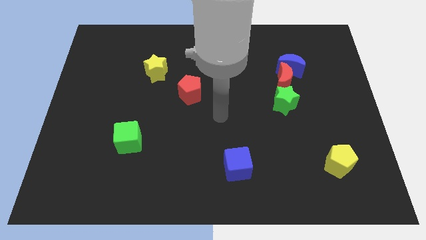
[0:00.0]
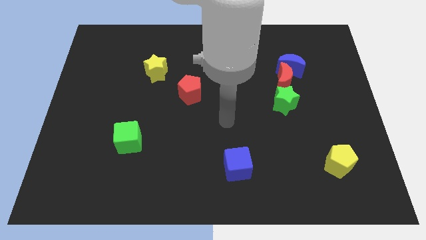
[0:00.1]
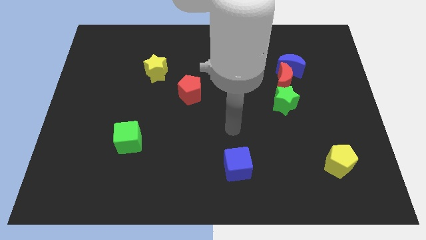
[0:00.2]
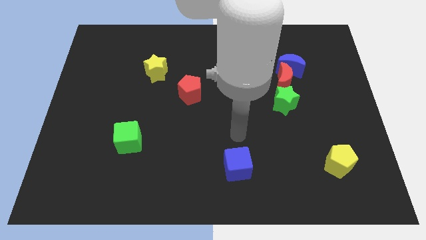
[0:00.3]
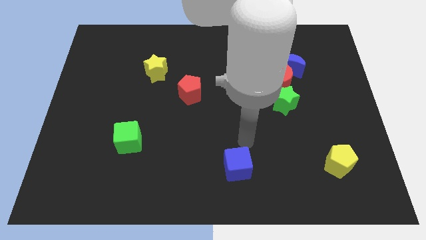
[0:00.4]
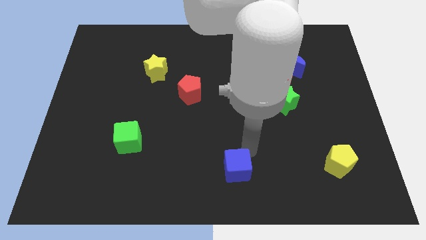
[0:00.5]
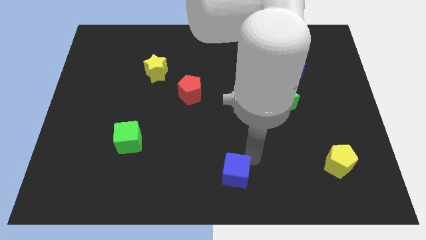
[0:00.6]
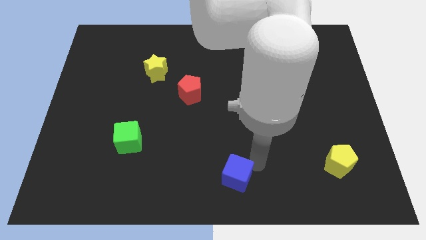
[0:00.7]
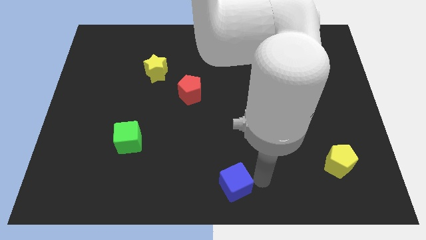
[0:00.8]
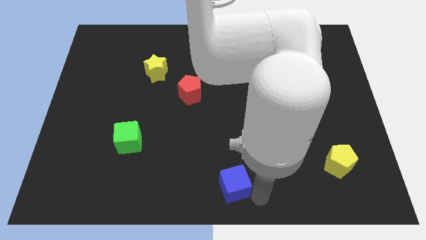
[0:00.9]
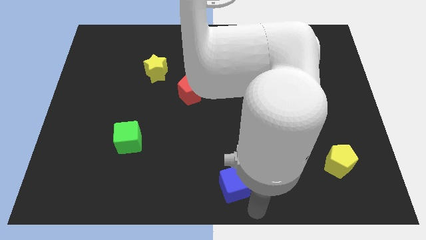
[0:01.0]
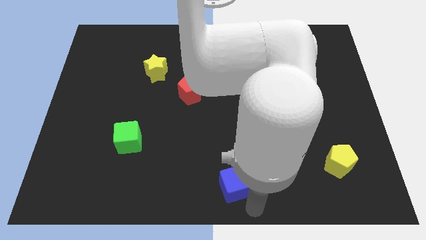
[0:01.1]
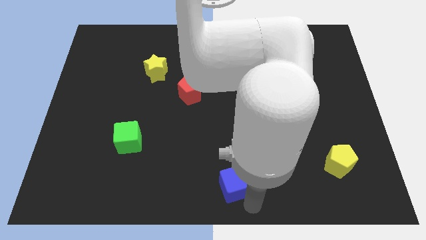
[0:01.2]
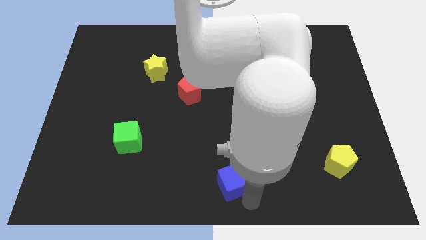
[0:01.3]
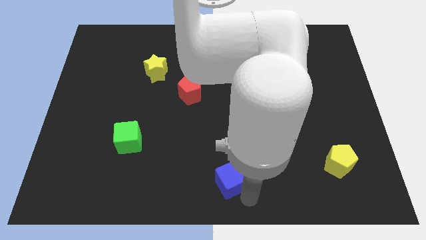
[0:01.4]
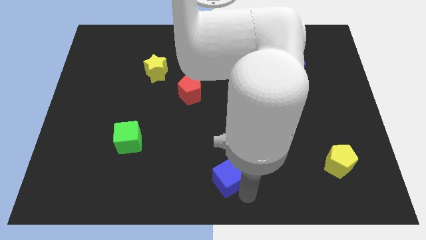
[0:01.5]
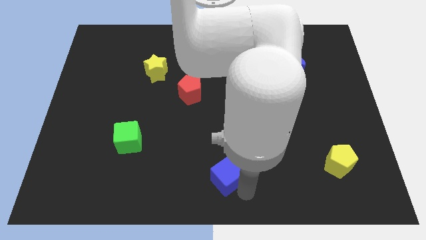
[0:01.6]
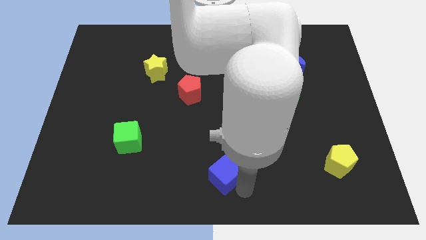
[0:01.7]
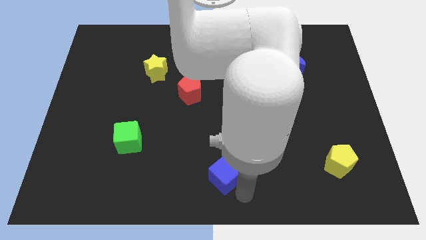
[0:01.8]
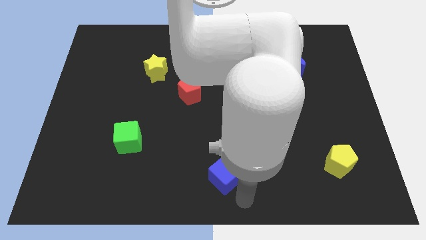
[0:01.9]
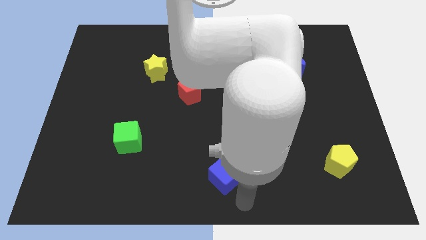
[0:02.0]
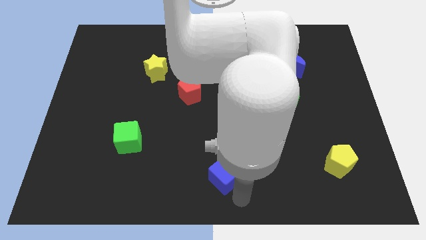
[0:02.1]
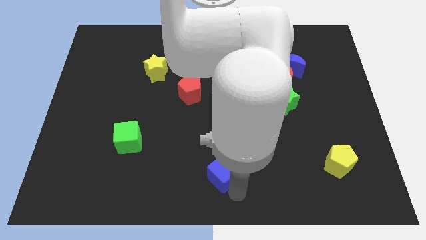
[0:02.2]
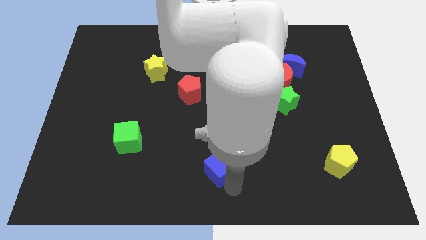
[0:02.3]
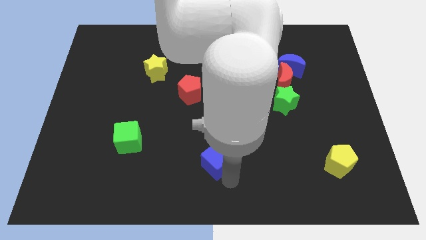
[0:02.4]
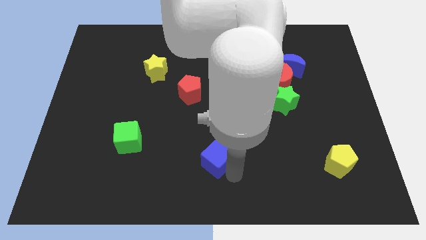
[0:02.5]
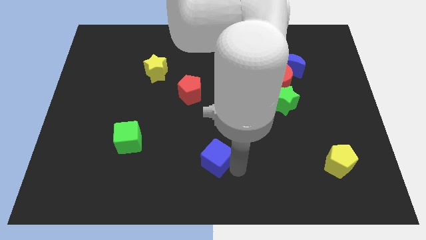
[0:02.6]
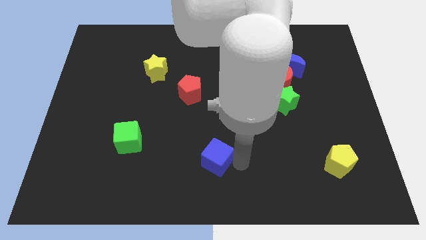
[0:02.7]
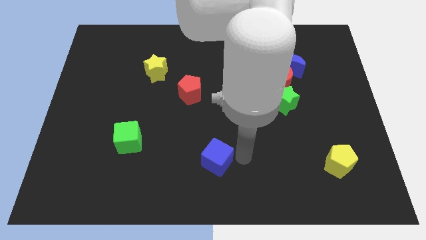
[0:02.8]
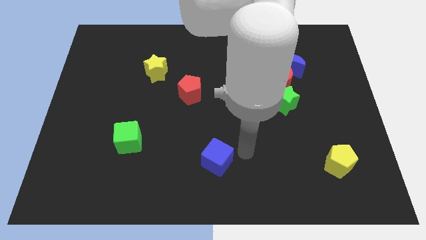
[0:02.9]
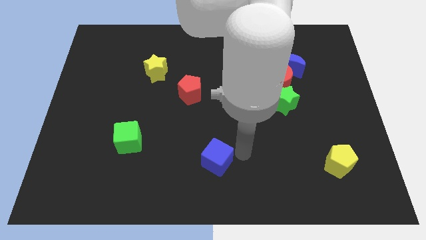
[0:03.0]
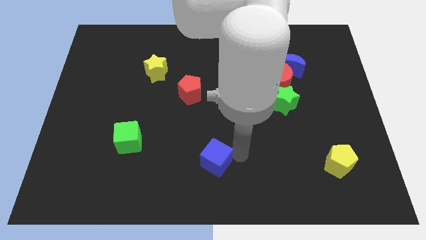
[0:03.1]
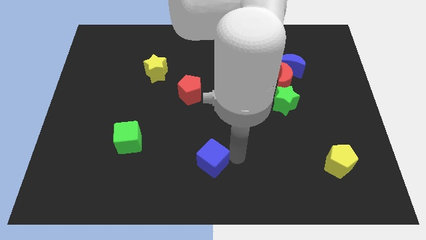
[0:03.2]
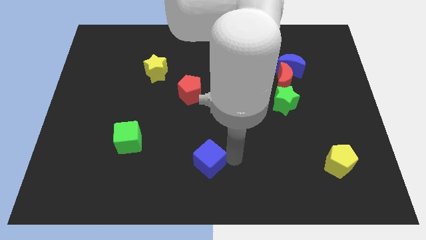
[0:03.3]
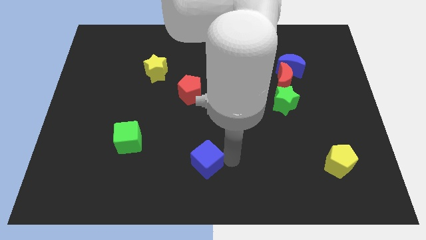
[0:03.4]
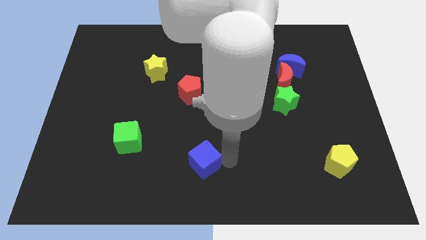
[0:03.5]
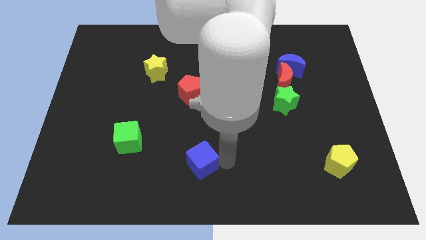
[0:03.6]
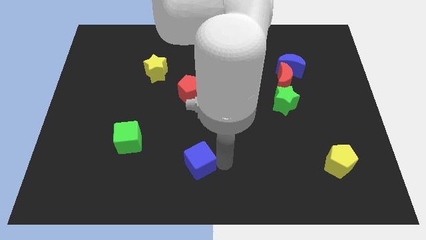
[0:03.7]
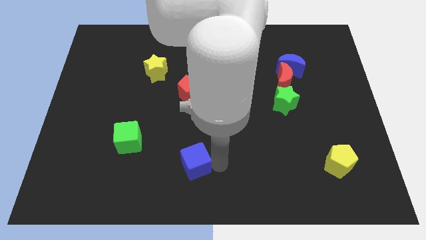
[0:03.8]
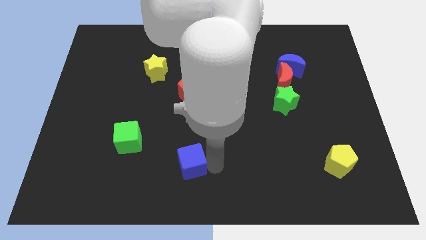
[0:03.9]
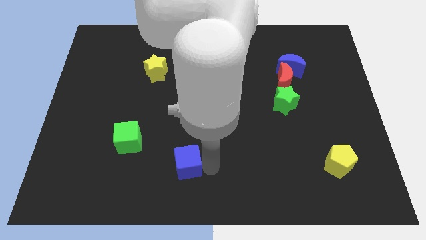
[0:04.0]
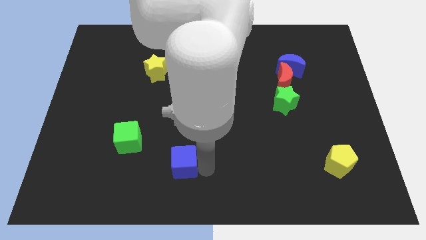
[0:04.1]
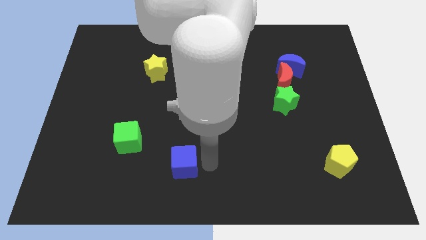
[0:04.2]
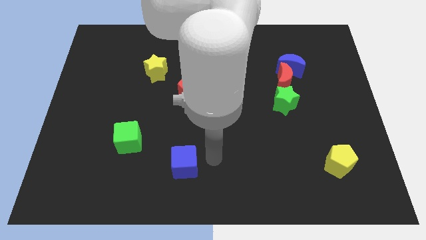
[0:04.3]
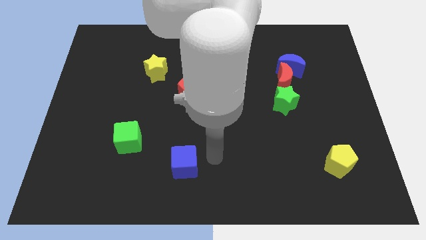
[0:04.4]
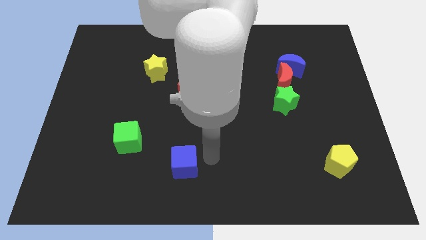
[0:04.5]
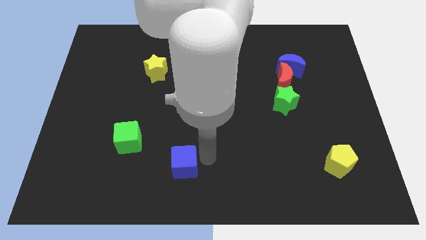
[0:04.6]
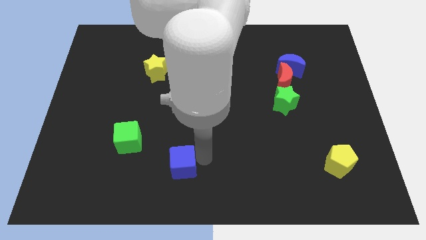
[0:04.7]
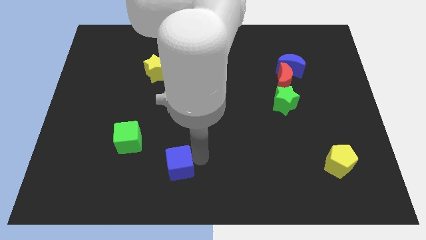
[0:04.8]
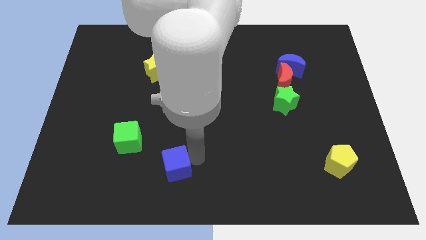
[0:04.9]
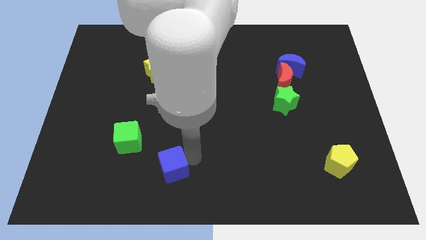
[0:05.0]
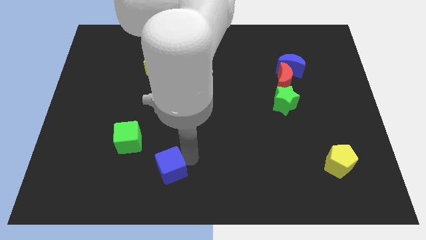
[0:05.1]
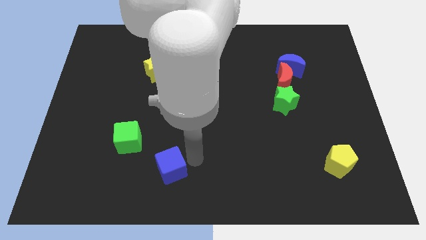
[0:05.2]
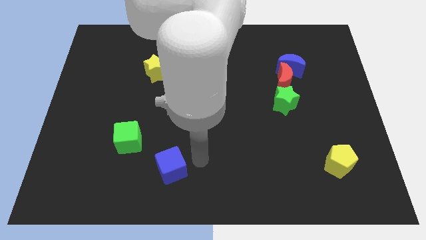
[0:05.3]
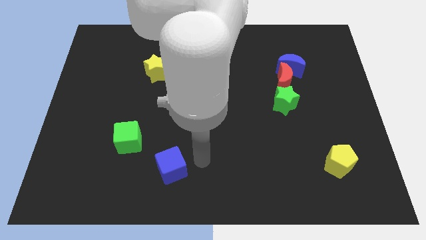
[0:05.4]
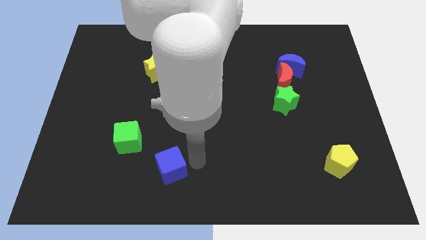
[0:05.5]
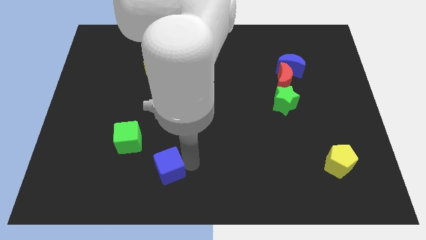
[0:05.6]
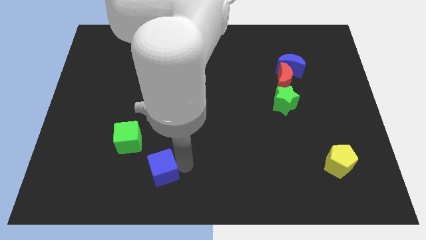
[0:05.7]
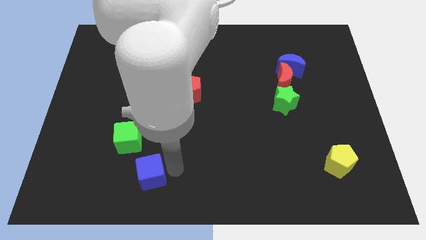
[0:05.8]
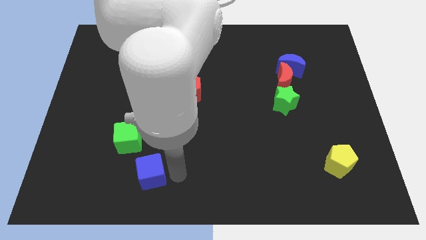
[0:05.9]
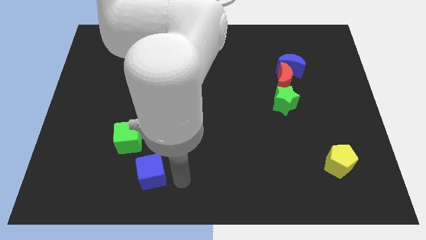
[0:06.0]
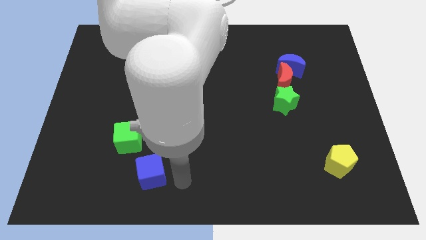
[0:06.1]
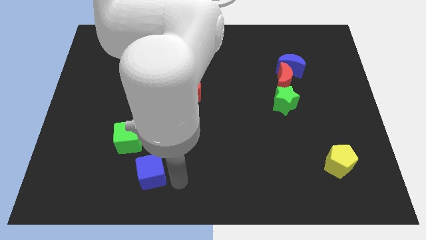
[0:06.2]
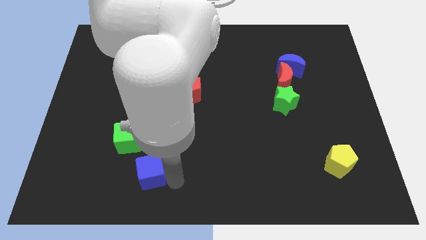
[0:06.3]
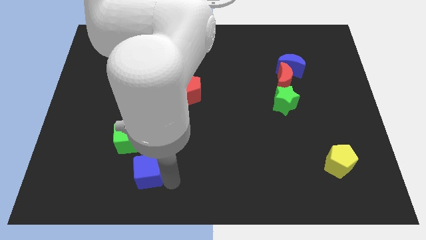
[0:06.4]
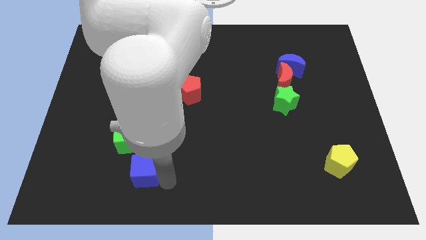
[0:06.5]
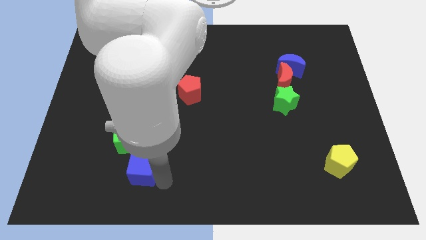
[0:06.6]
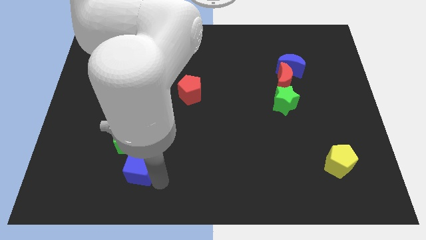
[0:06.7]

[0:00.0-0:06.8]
push the blue cube to the left

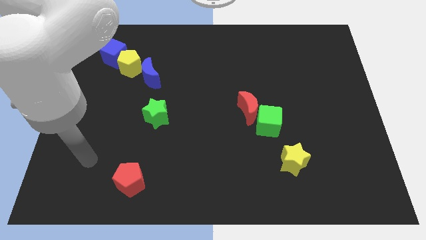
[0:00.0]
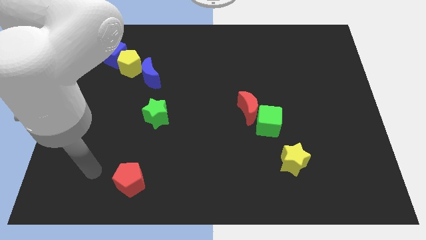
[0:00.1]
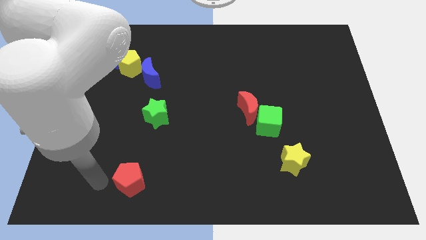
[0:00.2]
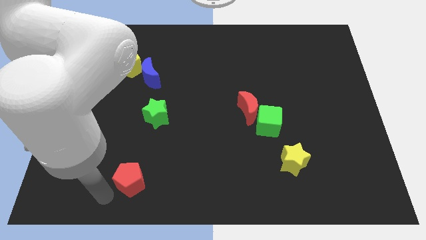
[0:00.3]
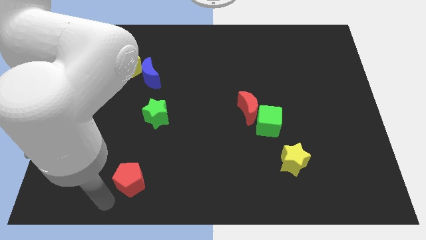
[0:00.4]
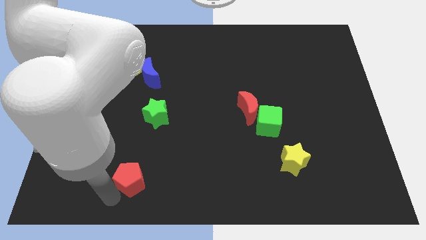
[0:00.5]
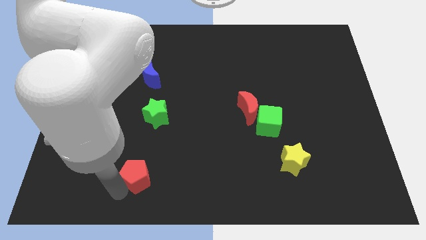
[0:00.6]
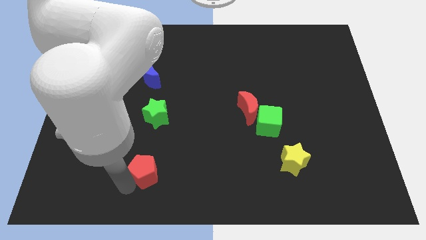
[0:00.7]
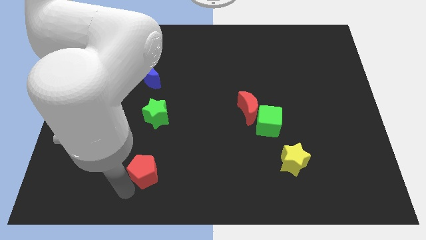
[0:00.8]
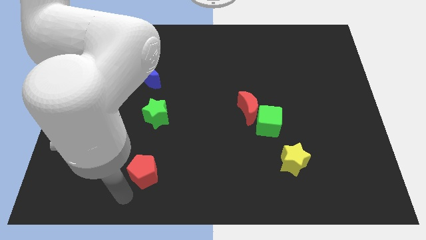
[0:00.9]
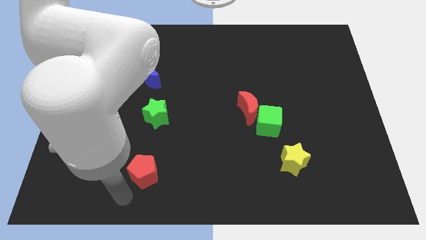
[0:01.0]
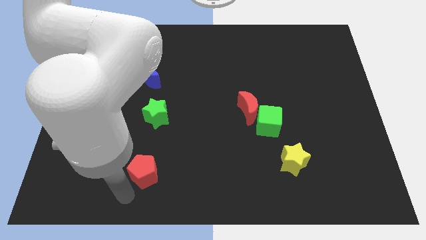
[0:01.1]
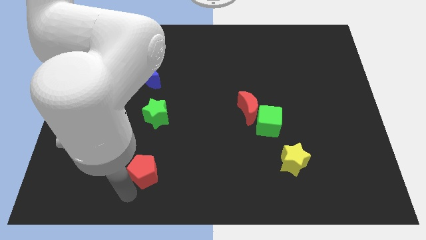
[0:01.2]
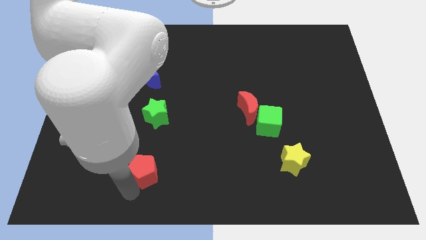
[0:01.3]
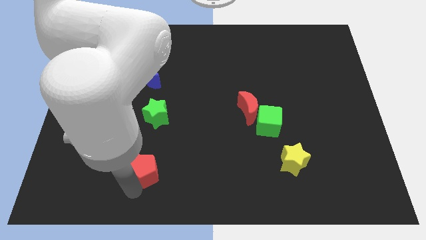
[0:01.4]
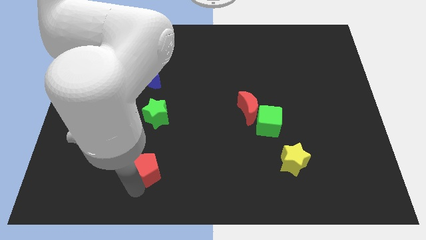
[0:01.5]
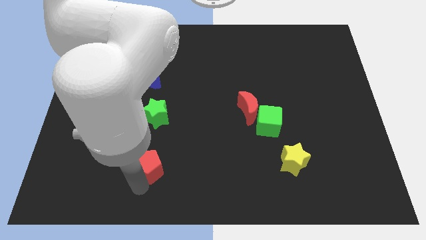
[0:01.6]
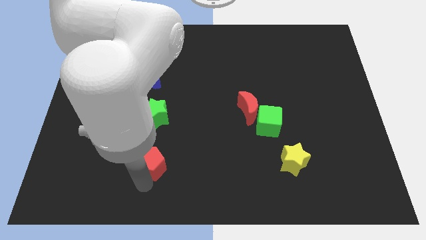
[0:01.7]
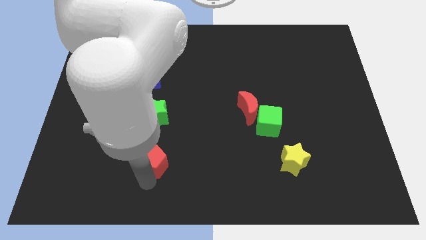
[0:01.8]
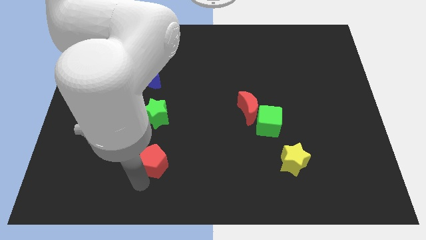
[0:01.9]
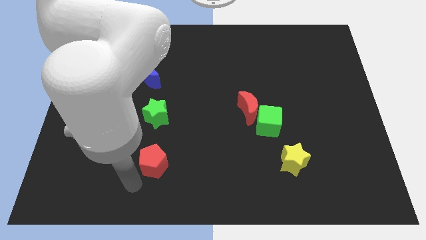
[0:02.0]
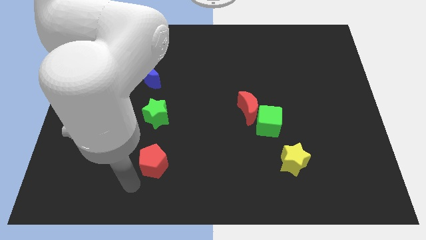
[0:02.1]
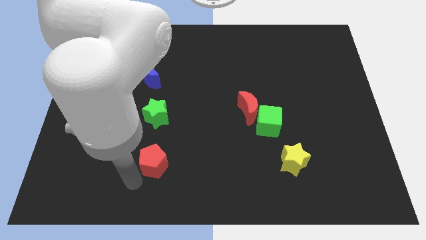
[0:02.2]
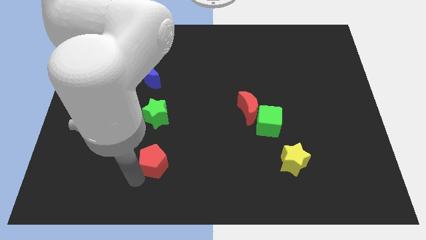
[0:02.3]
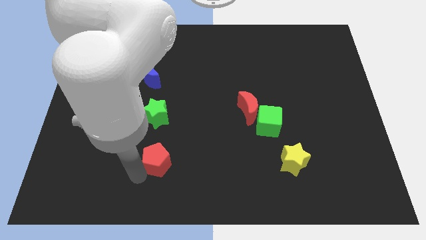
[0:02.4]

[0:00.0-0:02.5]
move the red pentagon upwards and right diagonally a little bit
